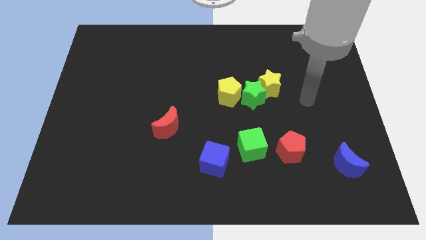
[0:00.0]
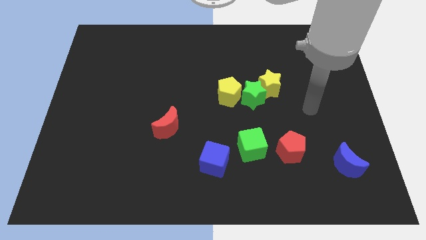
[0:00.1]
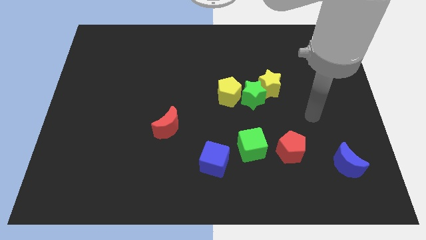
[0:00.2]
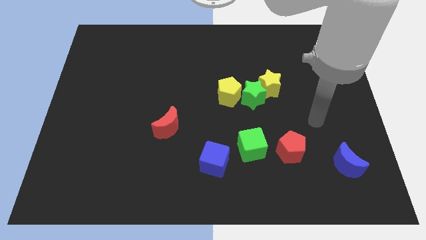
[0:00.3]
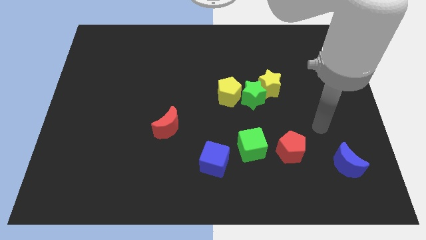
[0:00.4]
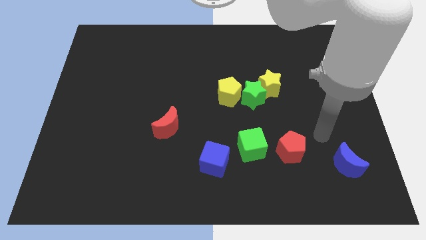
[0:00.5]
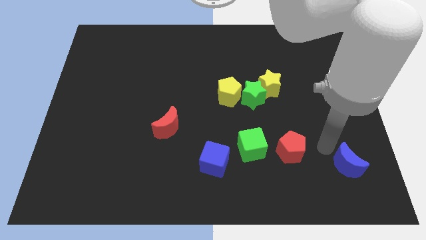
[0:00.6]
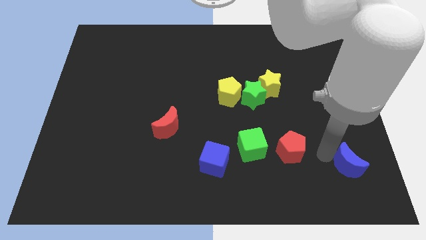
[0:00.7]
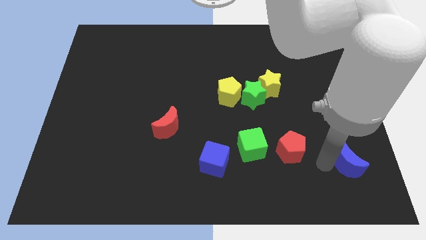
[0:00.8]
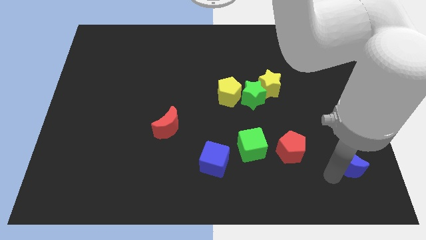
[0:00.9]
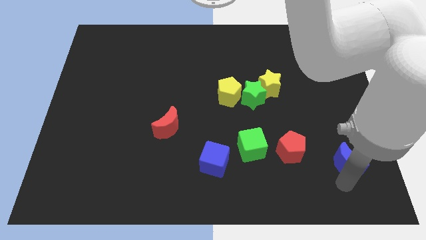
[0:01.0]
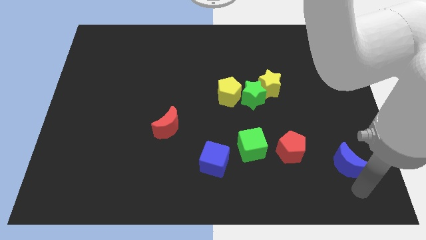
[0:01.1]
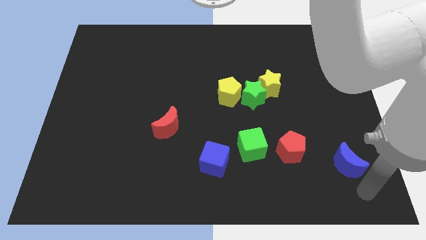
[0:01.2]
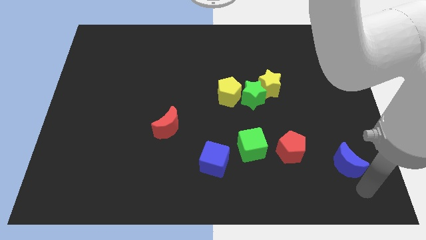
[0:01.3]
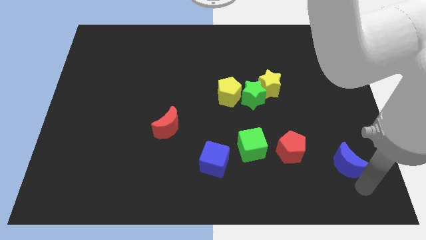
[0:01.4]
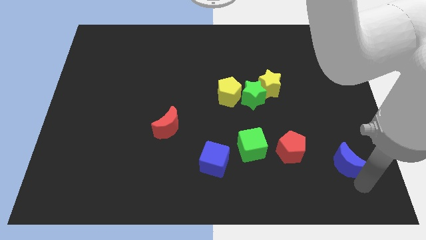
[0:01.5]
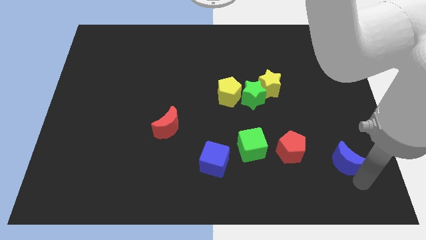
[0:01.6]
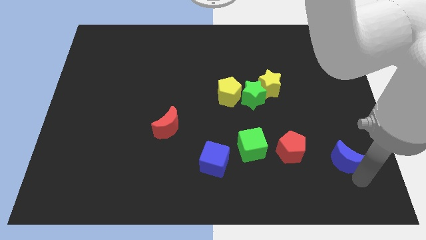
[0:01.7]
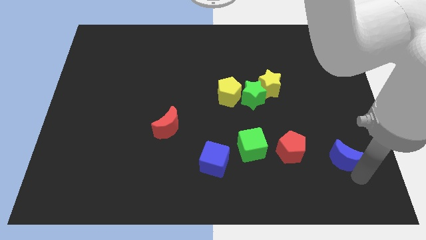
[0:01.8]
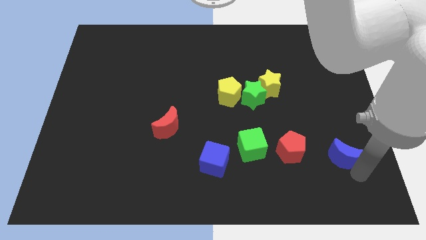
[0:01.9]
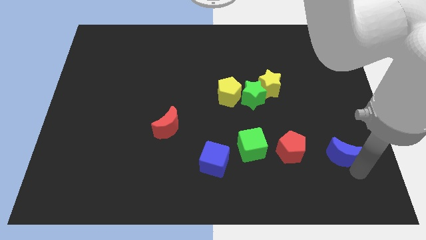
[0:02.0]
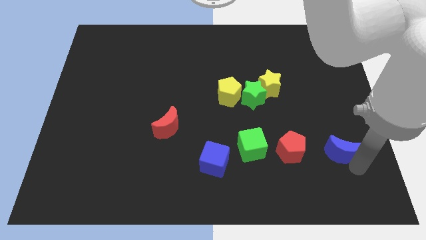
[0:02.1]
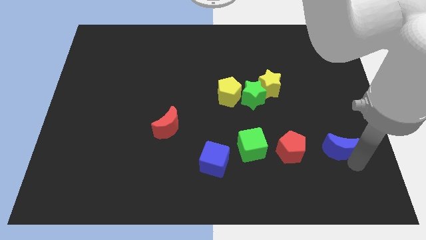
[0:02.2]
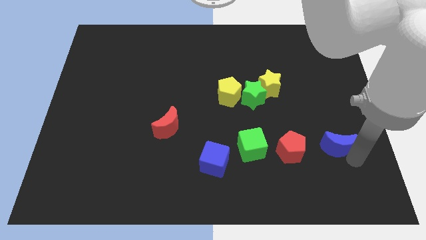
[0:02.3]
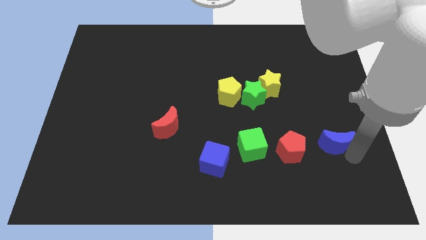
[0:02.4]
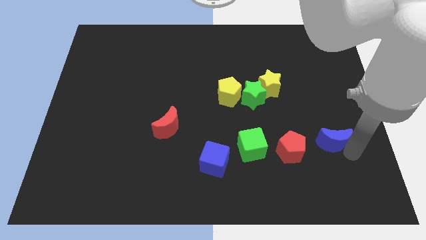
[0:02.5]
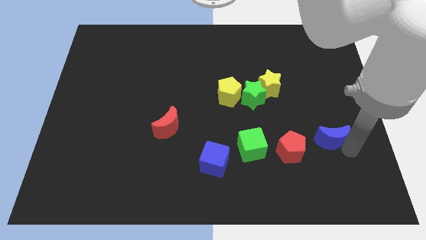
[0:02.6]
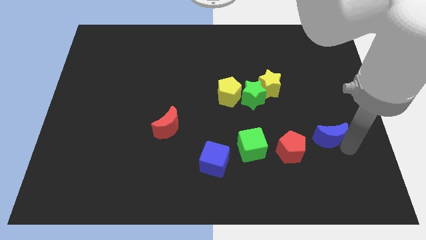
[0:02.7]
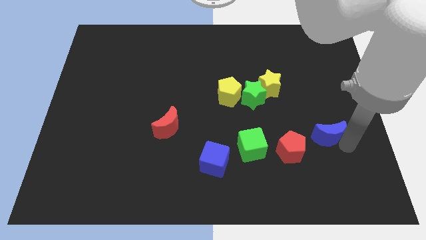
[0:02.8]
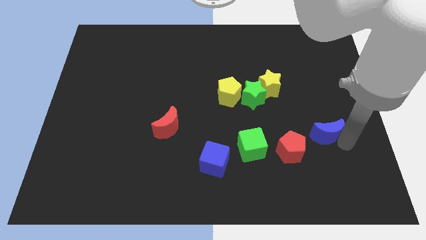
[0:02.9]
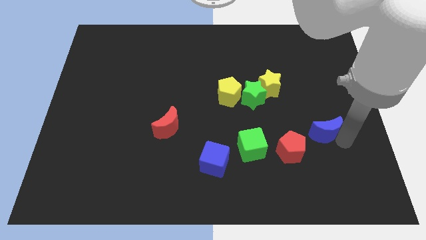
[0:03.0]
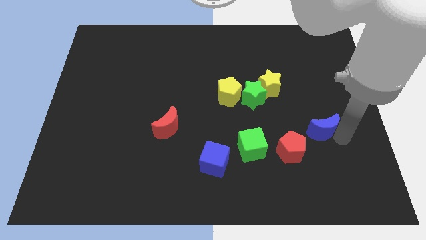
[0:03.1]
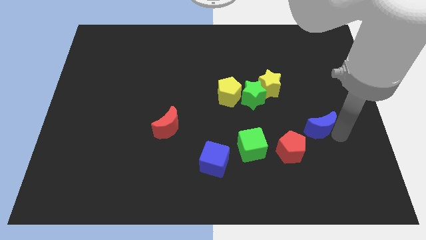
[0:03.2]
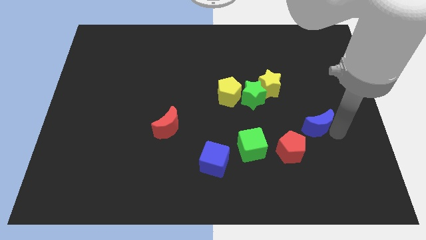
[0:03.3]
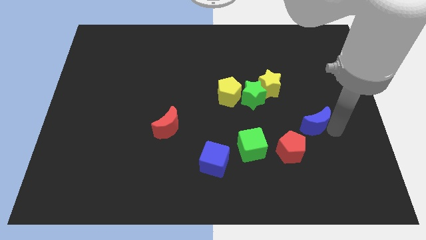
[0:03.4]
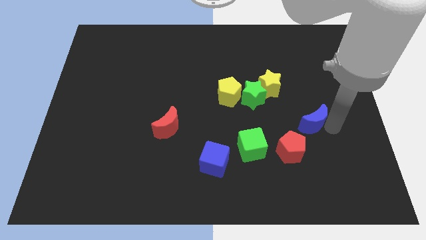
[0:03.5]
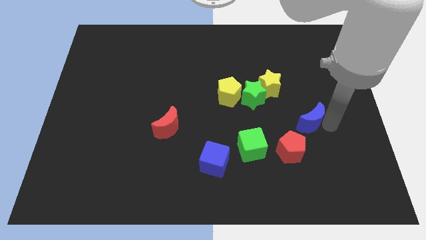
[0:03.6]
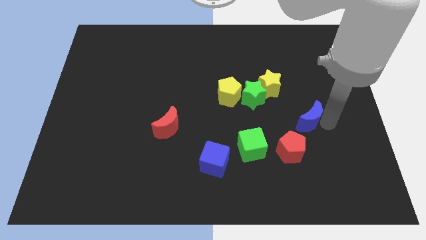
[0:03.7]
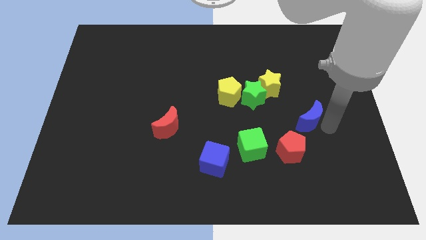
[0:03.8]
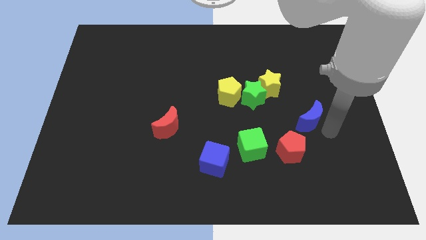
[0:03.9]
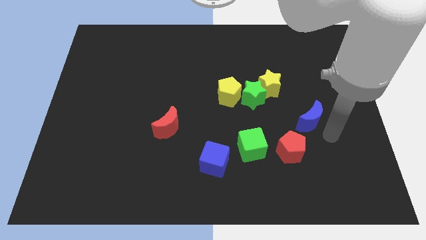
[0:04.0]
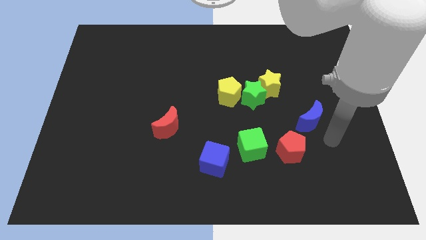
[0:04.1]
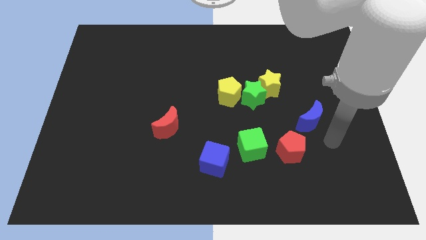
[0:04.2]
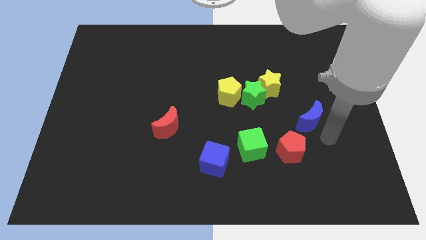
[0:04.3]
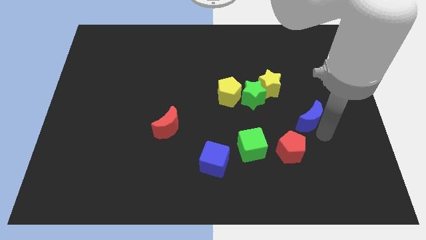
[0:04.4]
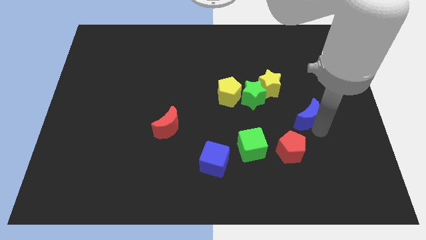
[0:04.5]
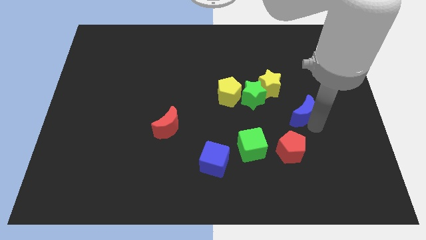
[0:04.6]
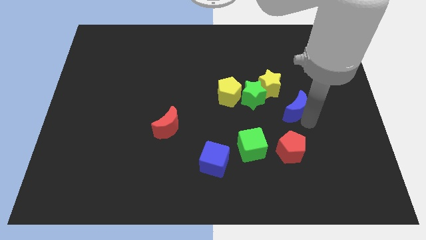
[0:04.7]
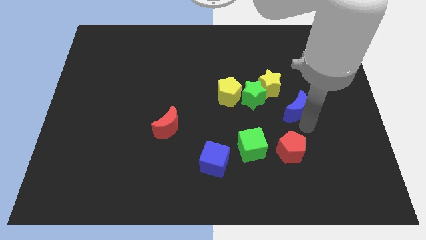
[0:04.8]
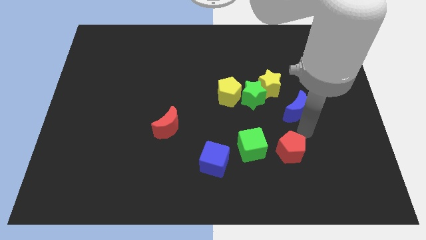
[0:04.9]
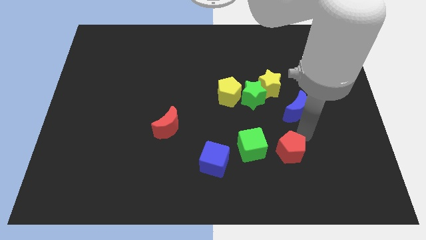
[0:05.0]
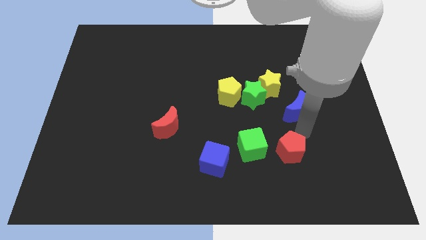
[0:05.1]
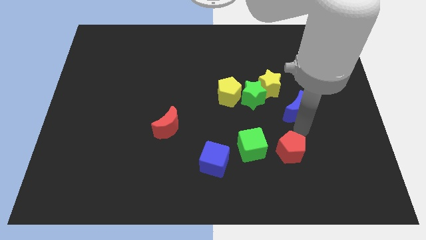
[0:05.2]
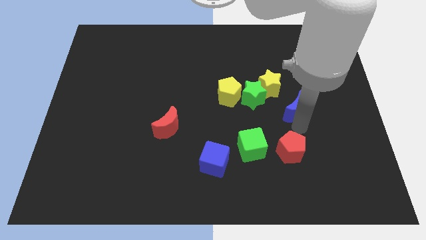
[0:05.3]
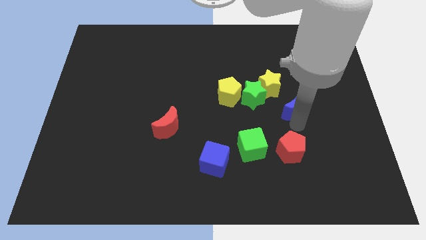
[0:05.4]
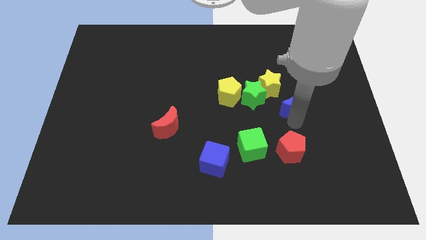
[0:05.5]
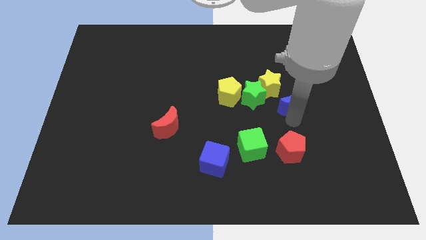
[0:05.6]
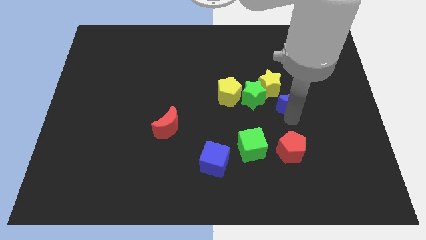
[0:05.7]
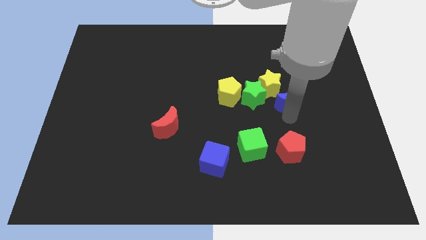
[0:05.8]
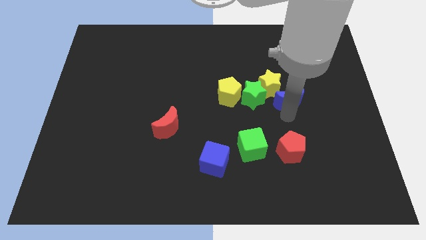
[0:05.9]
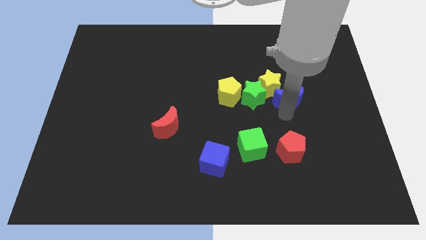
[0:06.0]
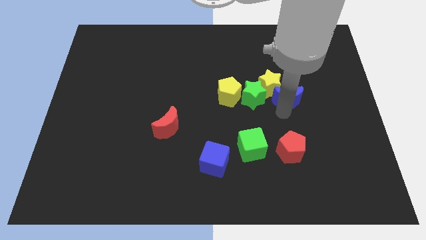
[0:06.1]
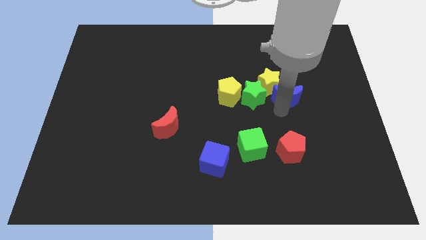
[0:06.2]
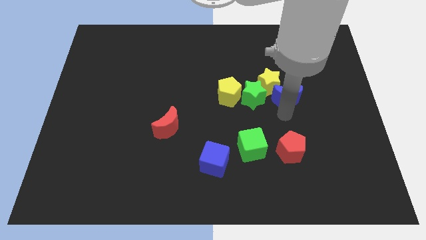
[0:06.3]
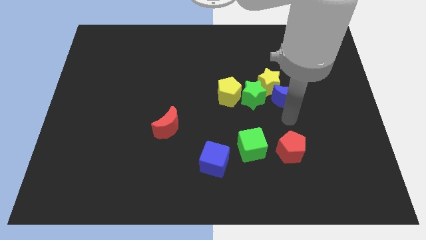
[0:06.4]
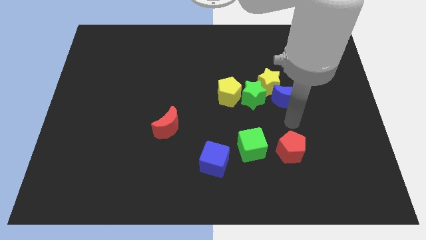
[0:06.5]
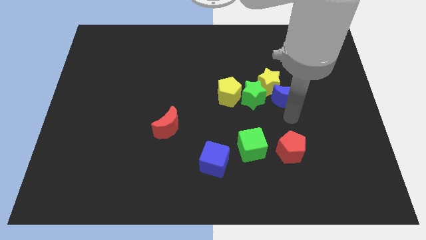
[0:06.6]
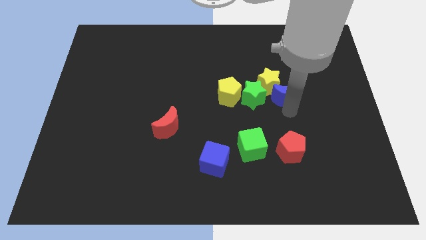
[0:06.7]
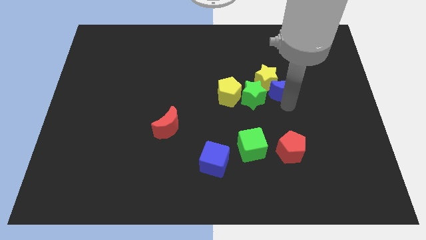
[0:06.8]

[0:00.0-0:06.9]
slide the blue moon upwards and to the left diagonally

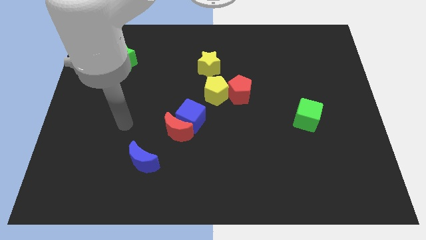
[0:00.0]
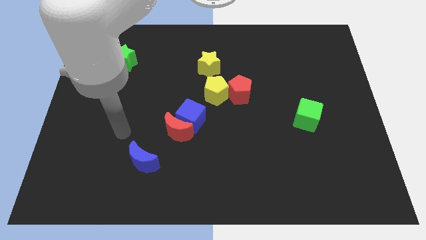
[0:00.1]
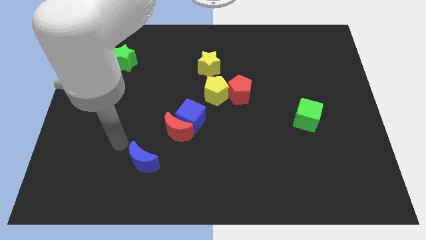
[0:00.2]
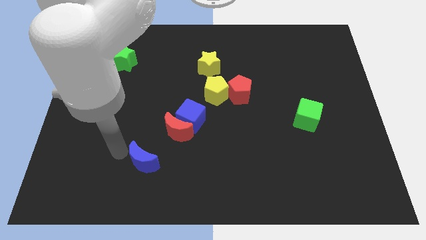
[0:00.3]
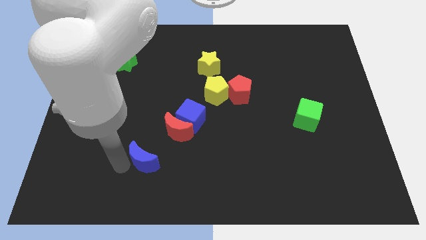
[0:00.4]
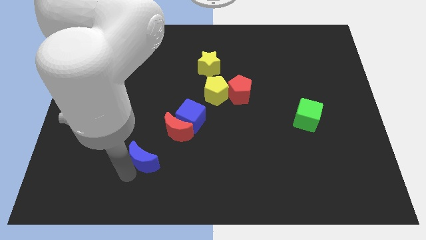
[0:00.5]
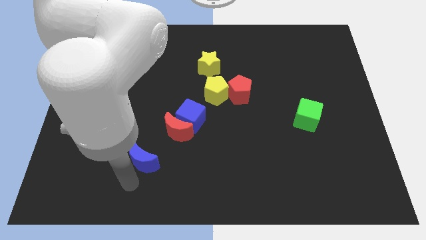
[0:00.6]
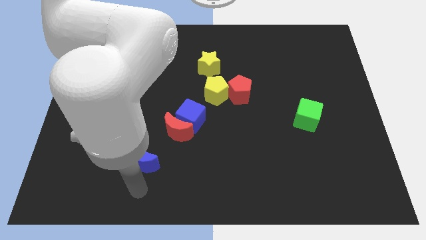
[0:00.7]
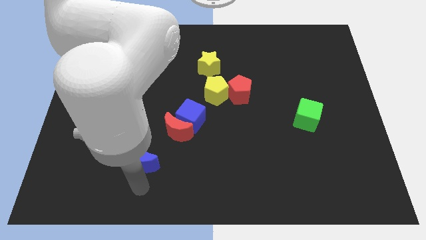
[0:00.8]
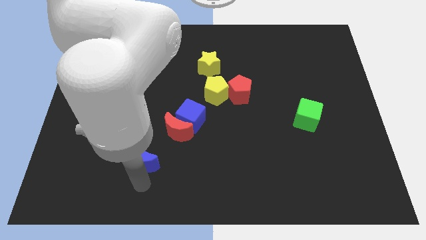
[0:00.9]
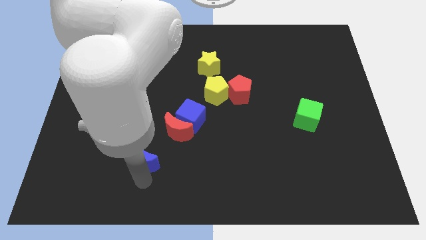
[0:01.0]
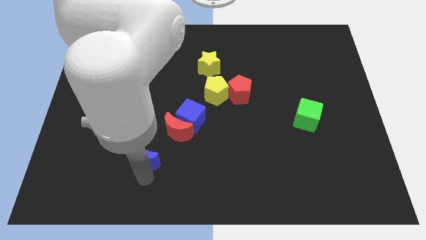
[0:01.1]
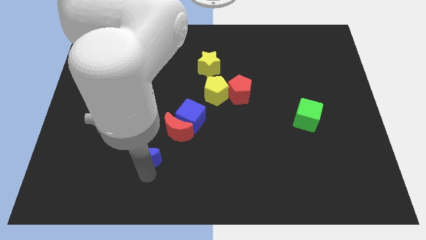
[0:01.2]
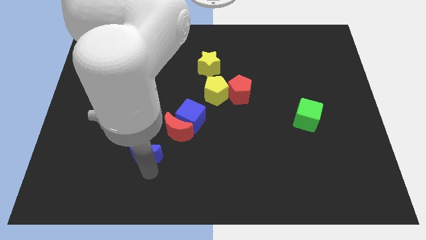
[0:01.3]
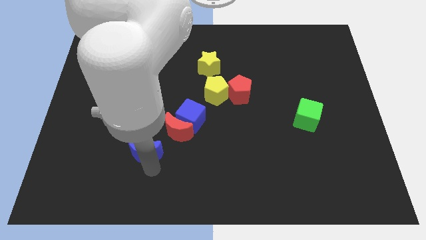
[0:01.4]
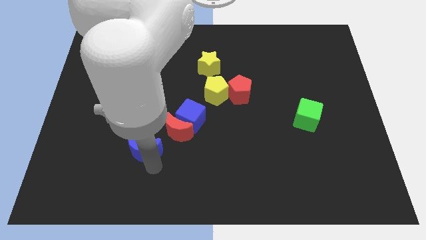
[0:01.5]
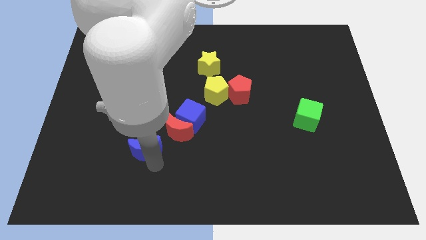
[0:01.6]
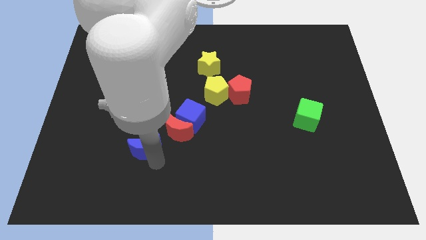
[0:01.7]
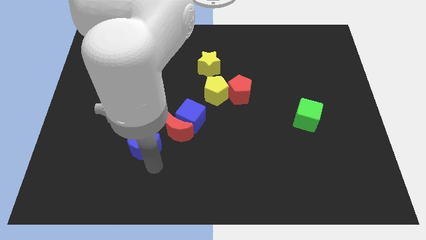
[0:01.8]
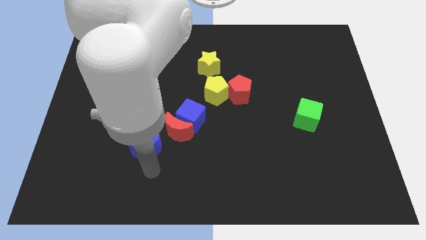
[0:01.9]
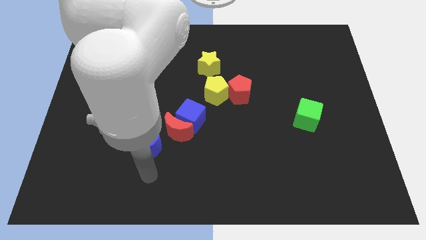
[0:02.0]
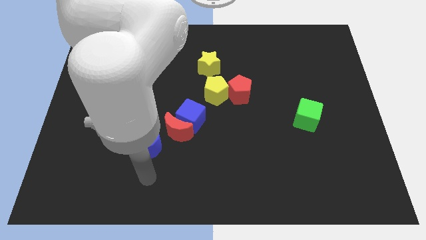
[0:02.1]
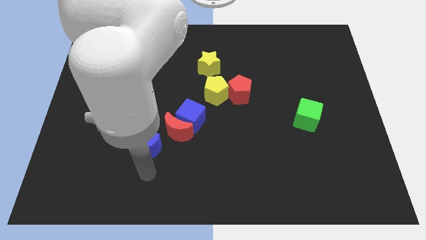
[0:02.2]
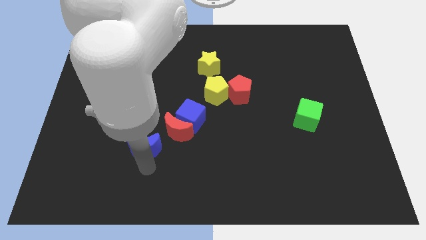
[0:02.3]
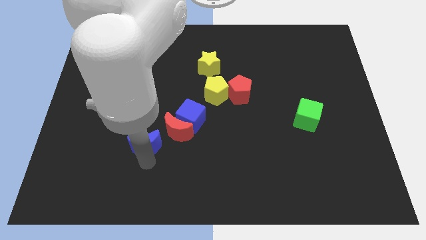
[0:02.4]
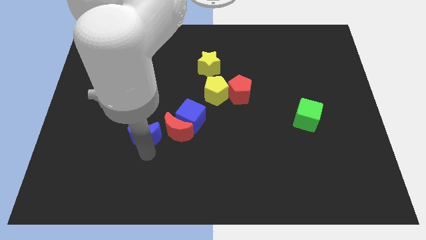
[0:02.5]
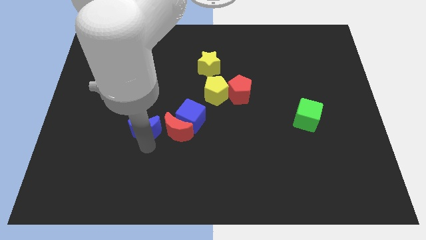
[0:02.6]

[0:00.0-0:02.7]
slightly slide the blue moon up
